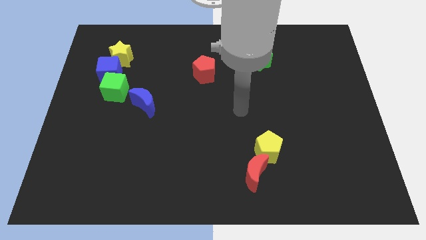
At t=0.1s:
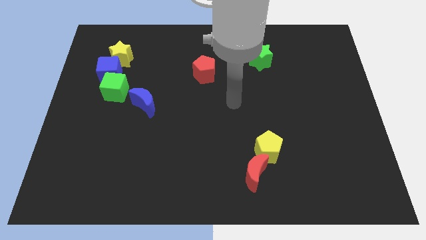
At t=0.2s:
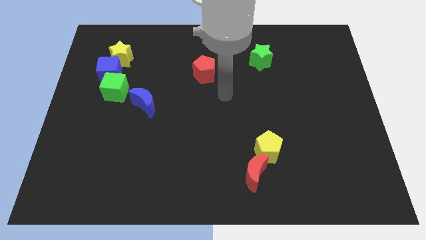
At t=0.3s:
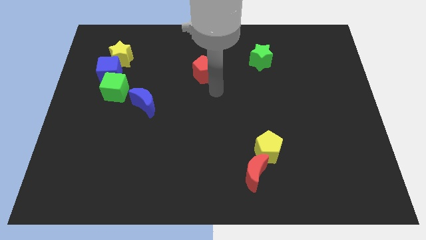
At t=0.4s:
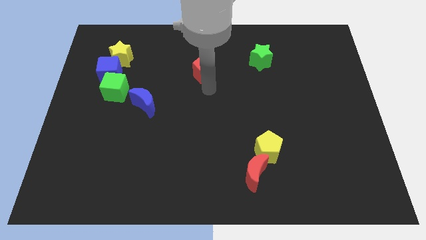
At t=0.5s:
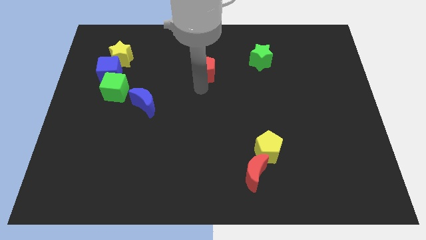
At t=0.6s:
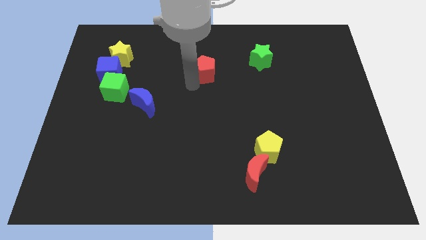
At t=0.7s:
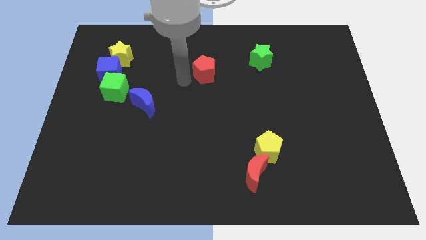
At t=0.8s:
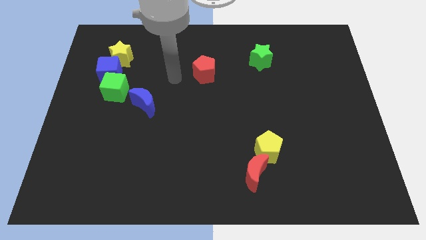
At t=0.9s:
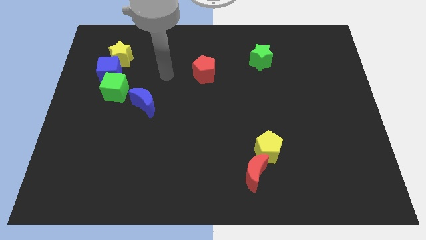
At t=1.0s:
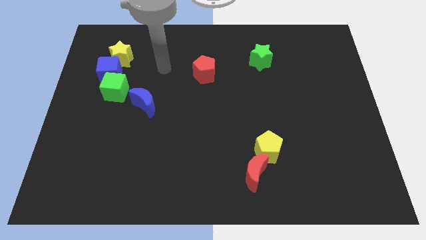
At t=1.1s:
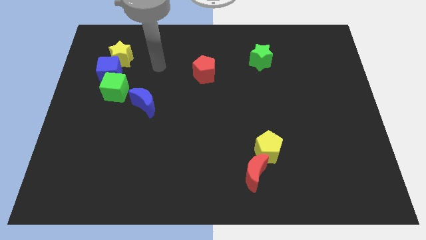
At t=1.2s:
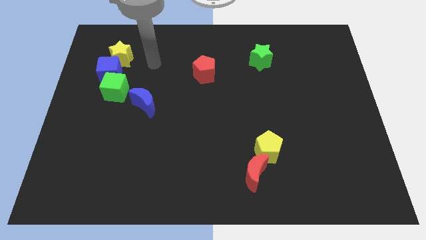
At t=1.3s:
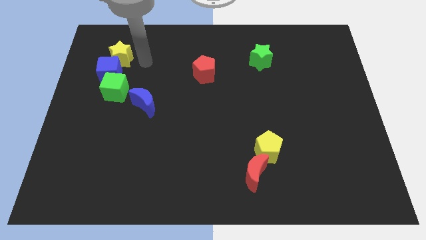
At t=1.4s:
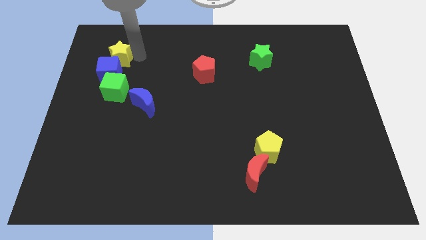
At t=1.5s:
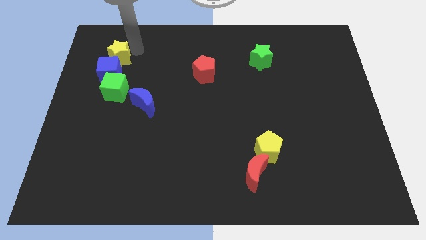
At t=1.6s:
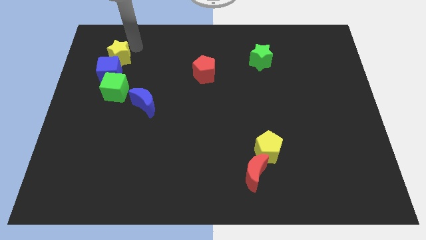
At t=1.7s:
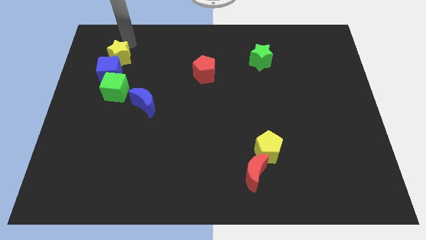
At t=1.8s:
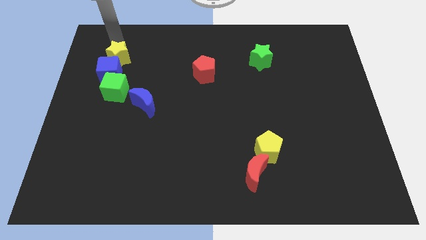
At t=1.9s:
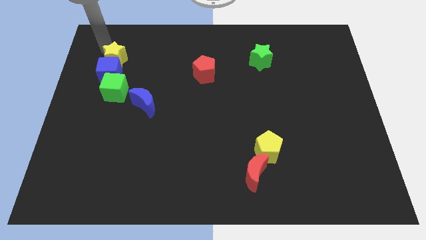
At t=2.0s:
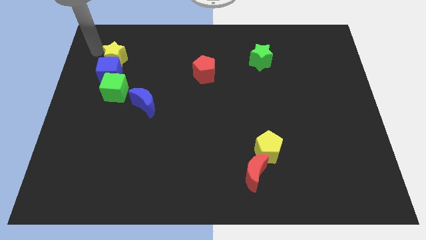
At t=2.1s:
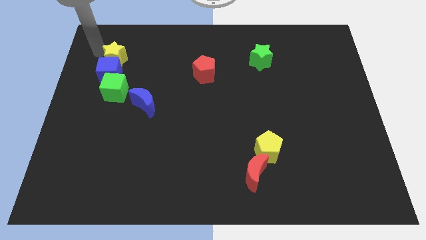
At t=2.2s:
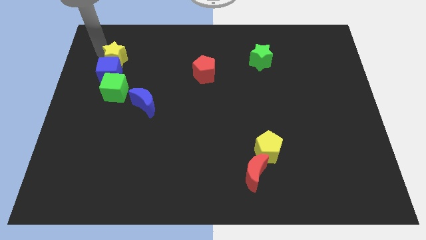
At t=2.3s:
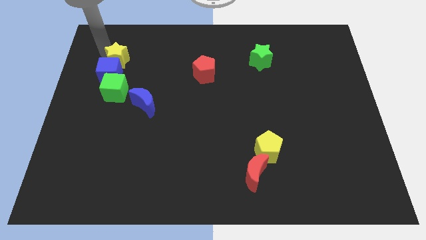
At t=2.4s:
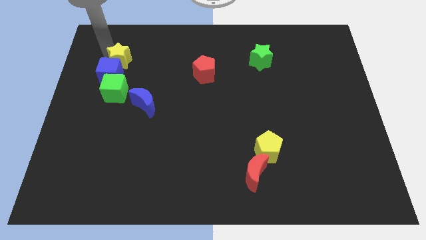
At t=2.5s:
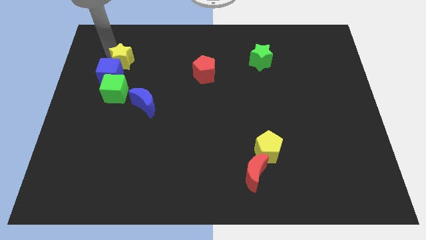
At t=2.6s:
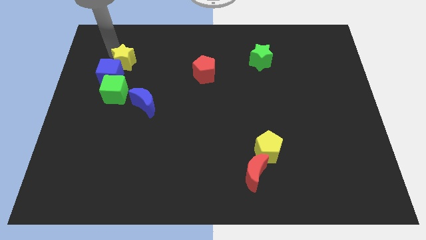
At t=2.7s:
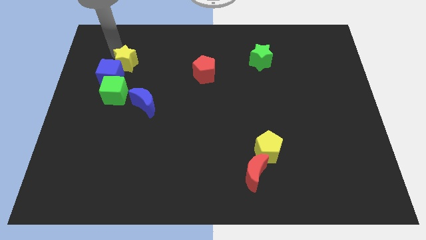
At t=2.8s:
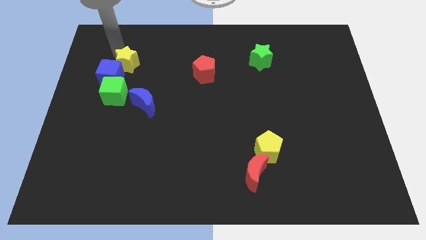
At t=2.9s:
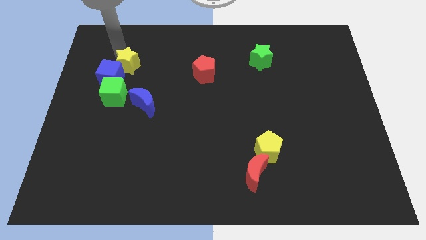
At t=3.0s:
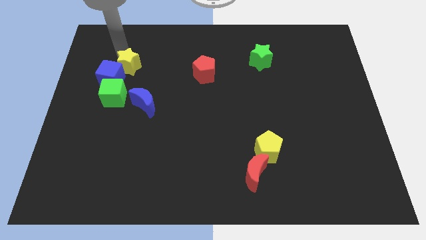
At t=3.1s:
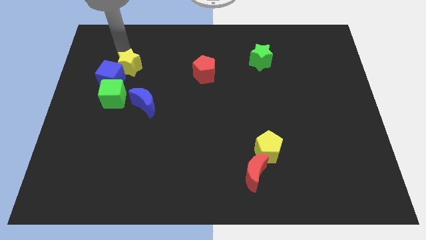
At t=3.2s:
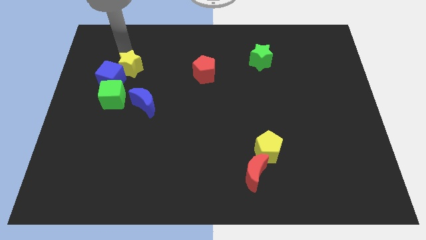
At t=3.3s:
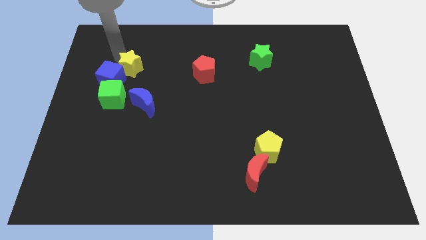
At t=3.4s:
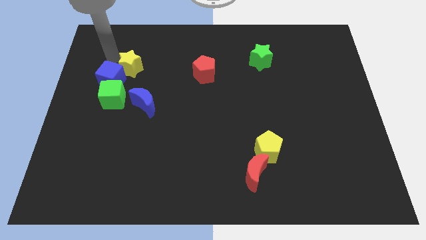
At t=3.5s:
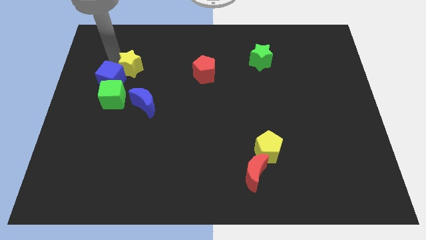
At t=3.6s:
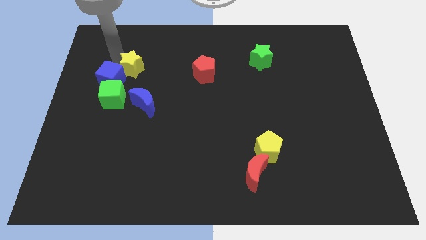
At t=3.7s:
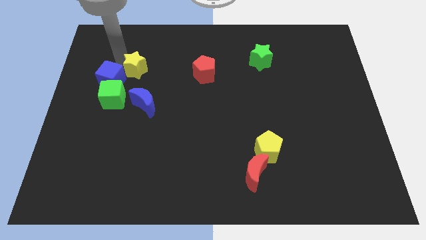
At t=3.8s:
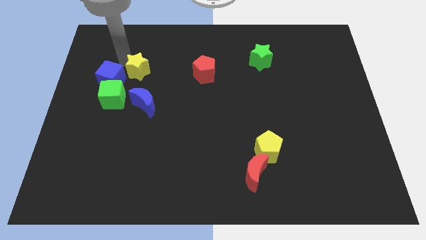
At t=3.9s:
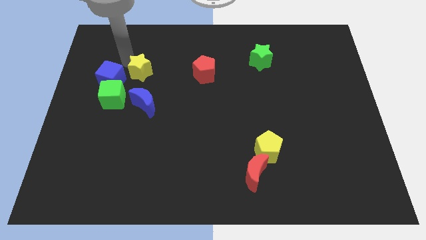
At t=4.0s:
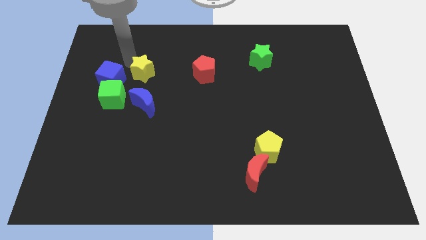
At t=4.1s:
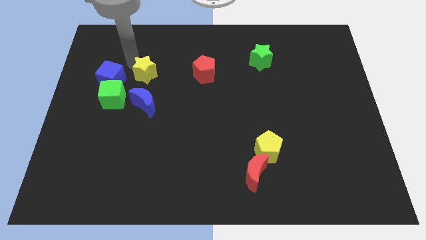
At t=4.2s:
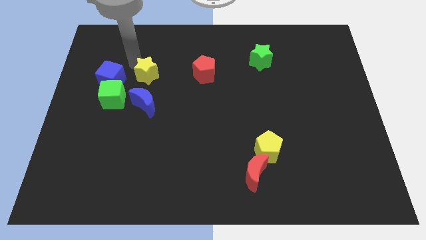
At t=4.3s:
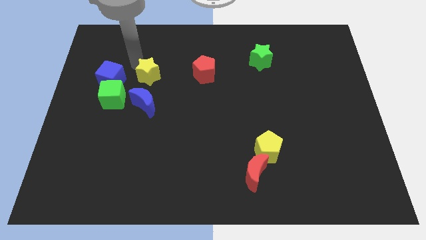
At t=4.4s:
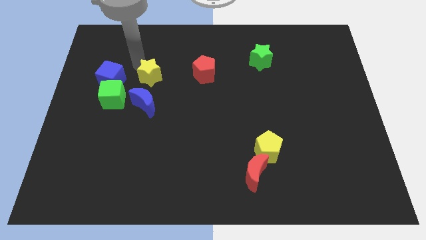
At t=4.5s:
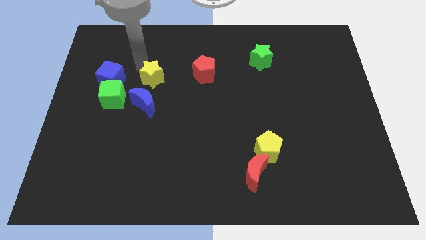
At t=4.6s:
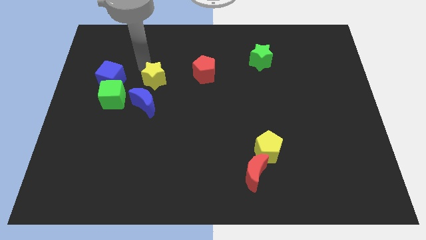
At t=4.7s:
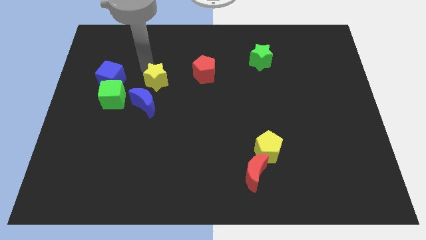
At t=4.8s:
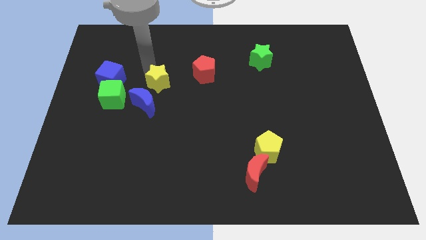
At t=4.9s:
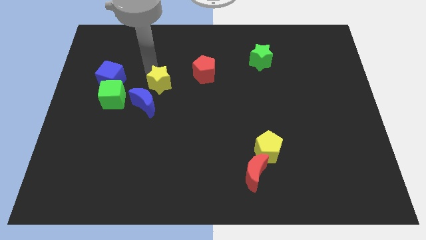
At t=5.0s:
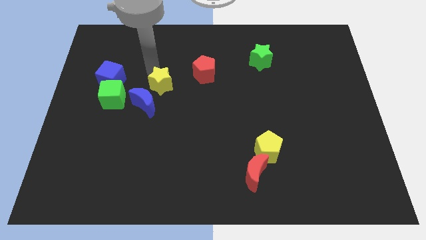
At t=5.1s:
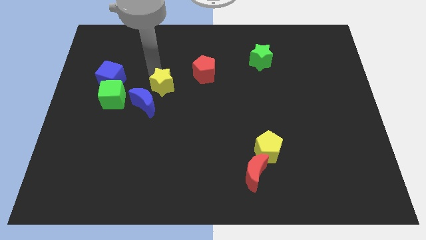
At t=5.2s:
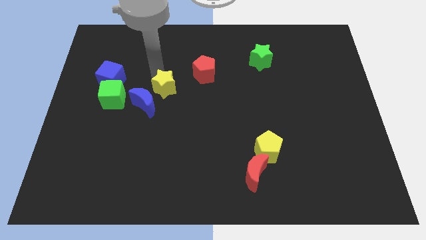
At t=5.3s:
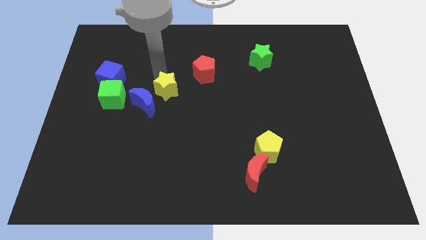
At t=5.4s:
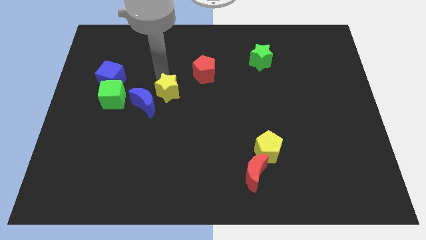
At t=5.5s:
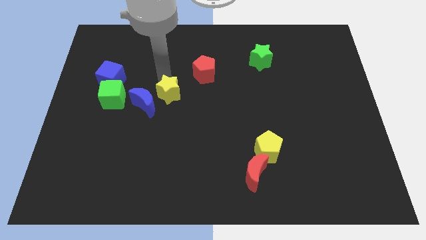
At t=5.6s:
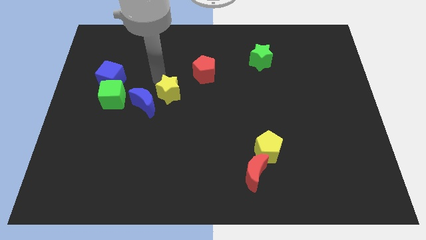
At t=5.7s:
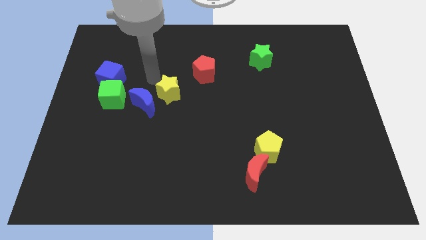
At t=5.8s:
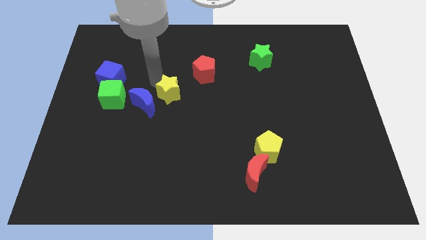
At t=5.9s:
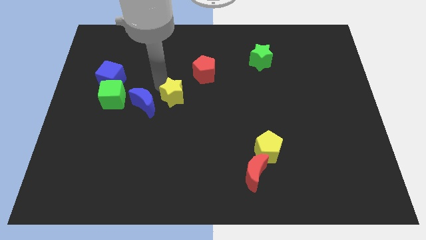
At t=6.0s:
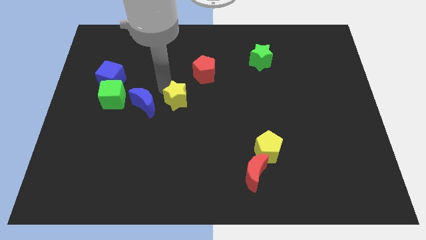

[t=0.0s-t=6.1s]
move the yellow star down and right diagonally

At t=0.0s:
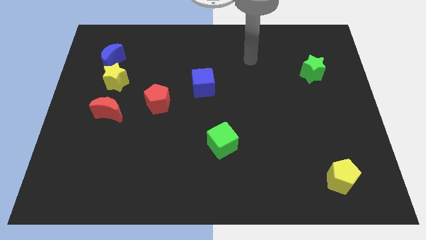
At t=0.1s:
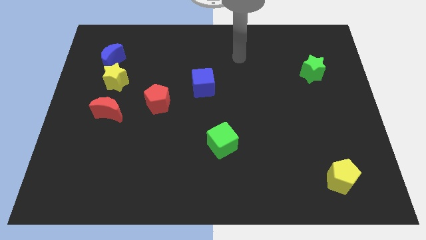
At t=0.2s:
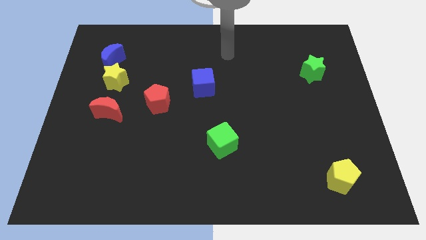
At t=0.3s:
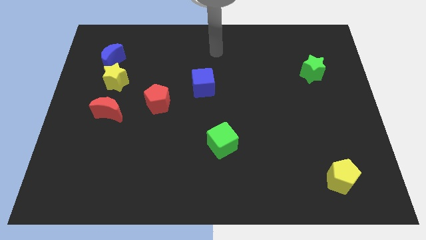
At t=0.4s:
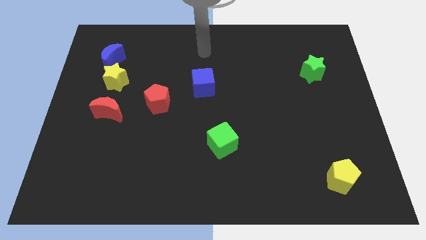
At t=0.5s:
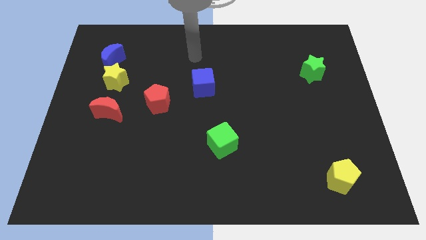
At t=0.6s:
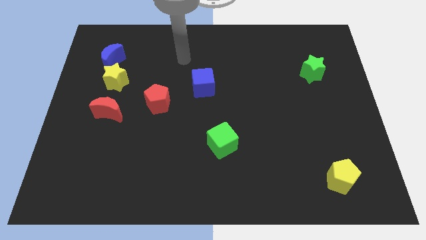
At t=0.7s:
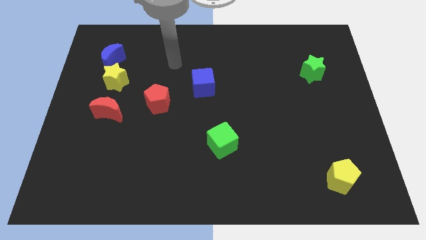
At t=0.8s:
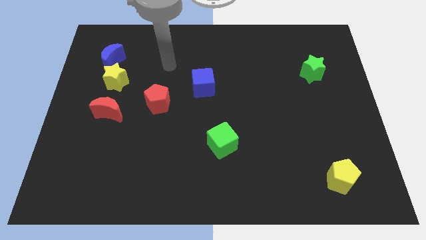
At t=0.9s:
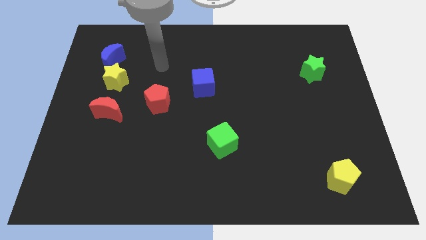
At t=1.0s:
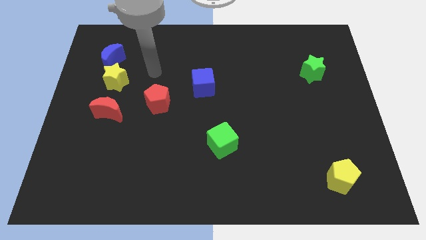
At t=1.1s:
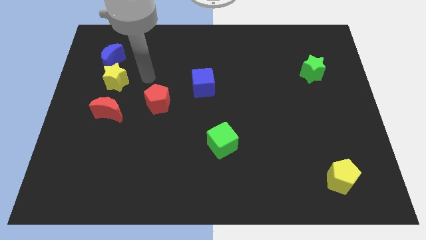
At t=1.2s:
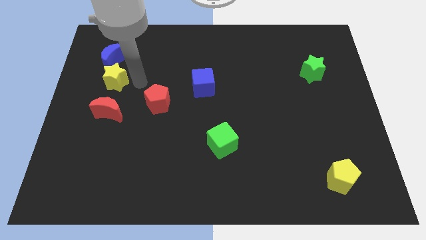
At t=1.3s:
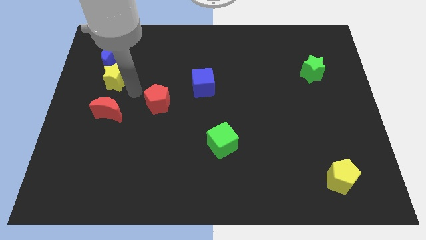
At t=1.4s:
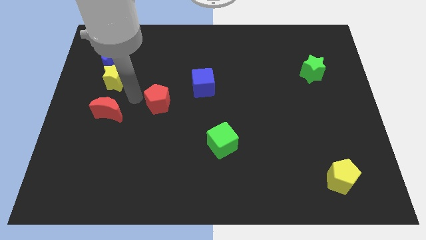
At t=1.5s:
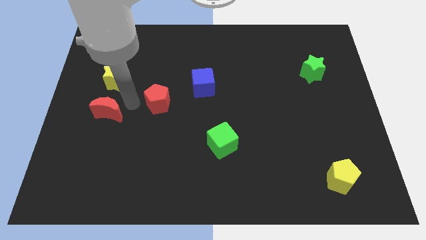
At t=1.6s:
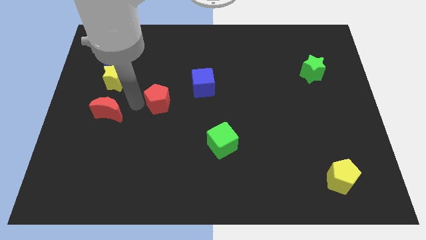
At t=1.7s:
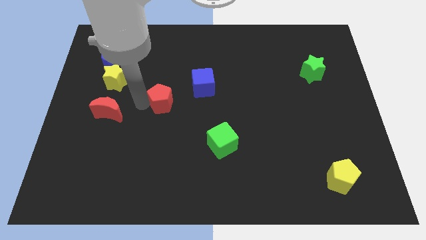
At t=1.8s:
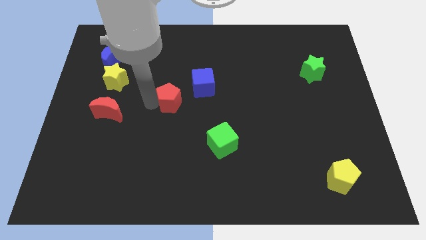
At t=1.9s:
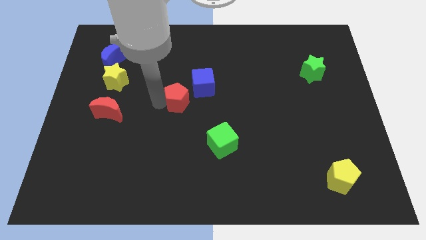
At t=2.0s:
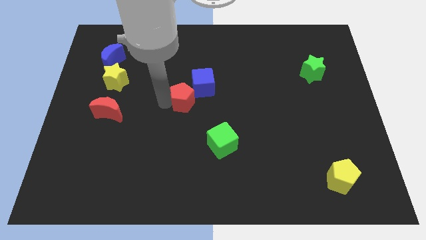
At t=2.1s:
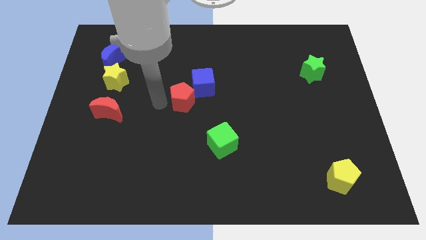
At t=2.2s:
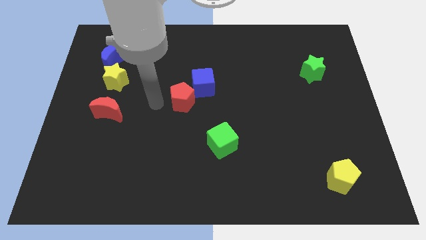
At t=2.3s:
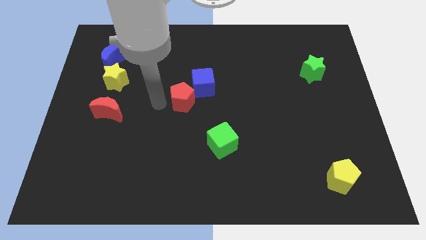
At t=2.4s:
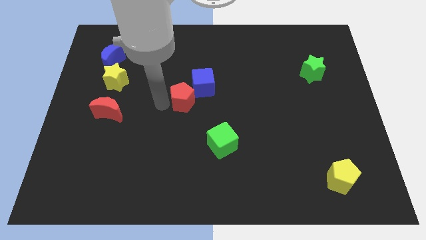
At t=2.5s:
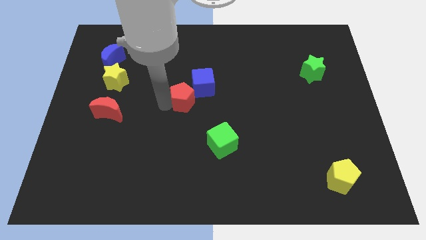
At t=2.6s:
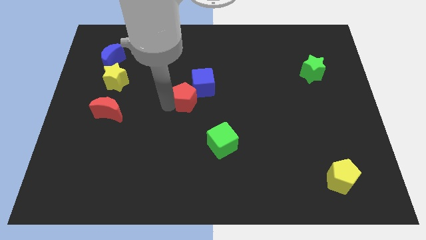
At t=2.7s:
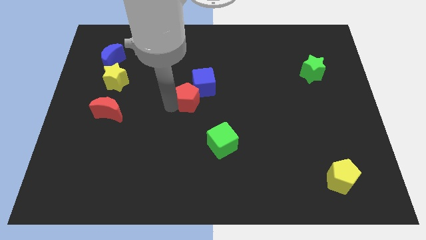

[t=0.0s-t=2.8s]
slightly move the red pentagon to the right
